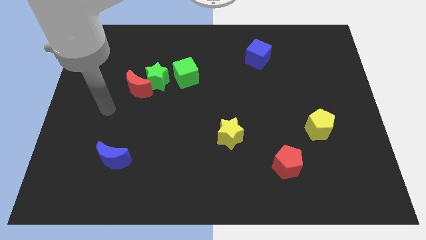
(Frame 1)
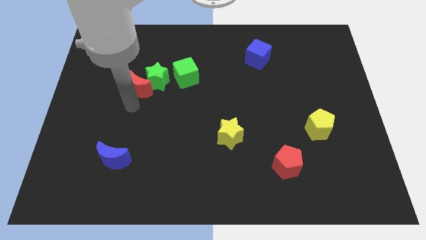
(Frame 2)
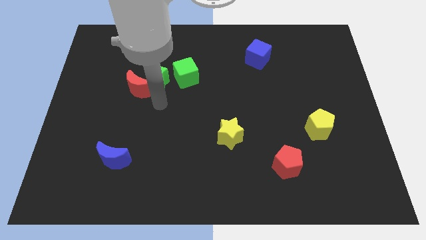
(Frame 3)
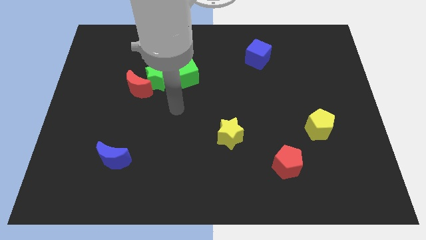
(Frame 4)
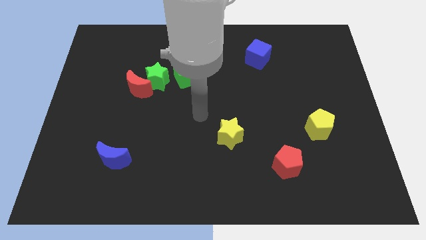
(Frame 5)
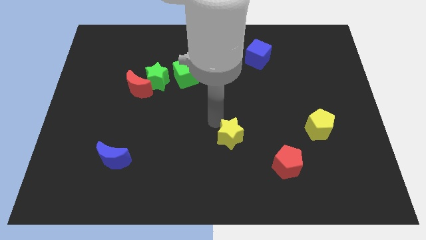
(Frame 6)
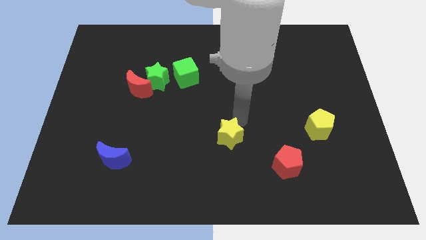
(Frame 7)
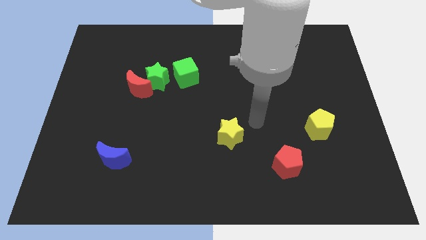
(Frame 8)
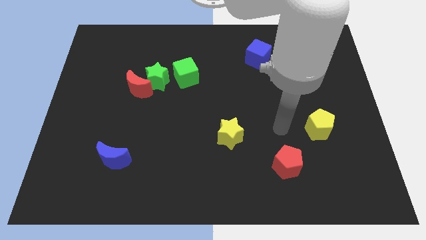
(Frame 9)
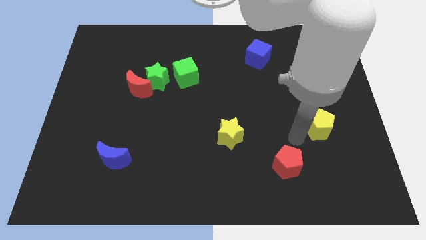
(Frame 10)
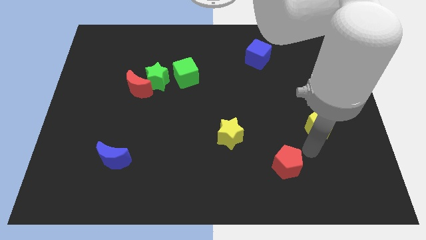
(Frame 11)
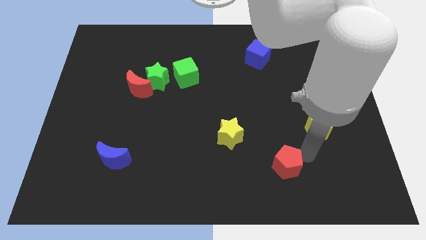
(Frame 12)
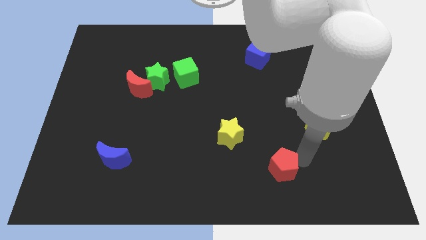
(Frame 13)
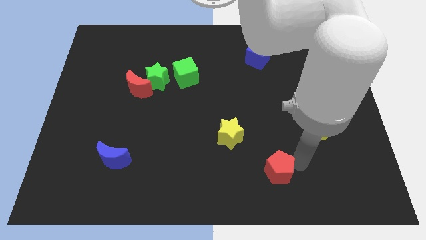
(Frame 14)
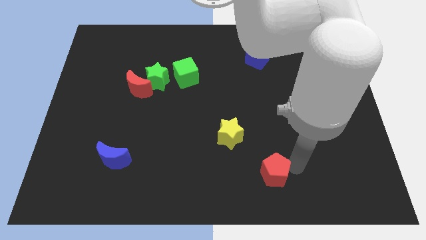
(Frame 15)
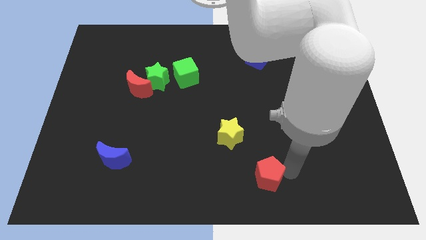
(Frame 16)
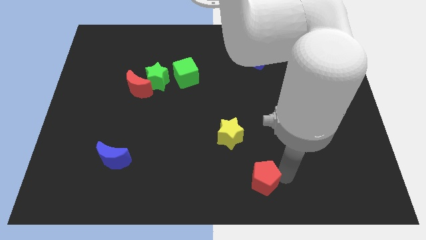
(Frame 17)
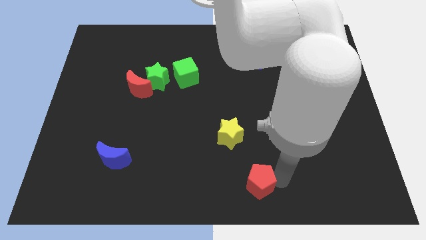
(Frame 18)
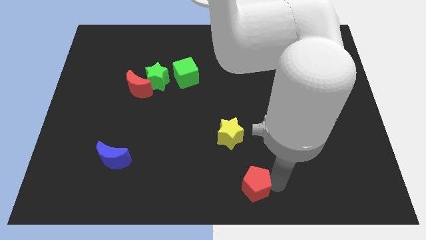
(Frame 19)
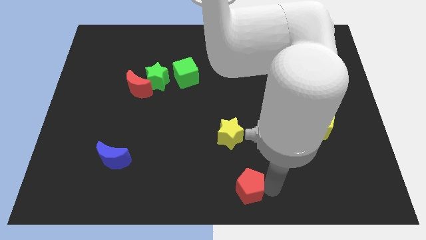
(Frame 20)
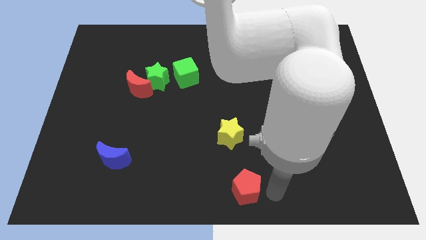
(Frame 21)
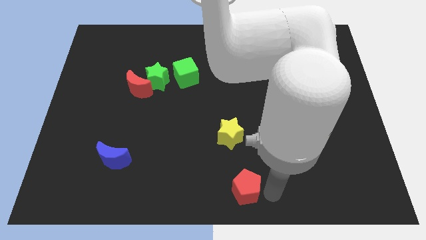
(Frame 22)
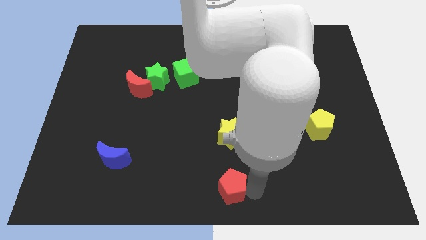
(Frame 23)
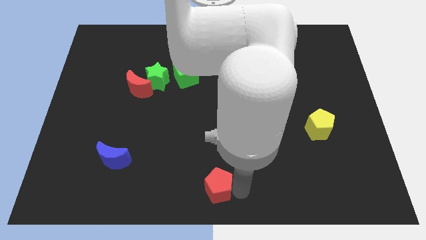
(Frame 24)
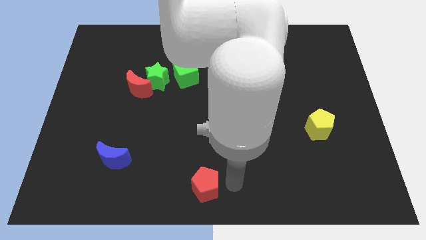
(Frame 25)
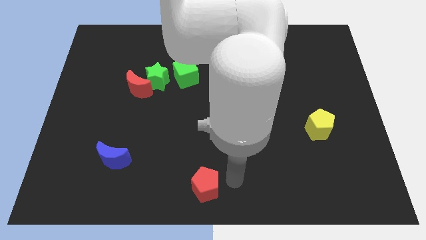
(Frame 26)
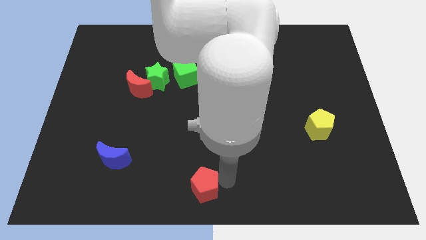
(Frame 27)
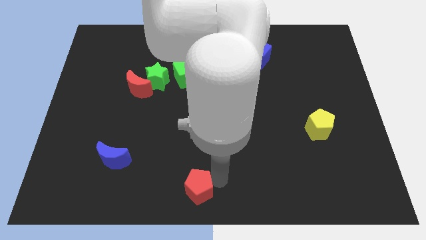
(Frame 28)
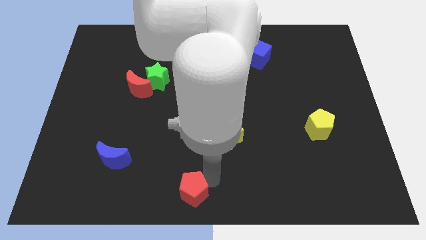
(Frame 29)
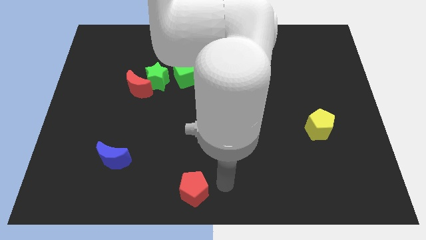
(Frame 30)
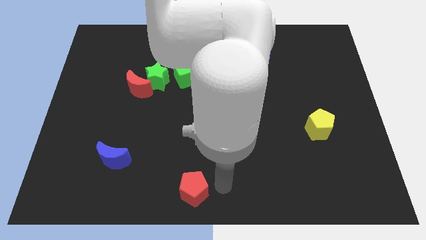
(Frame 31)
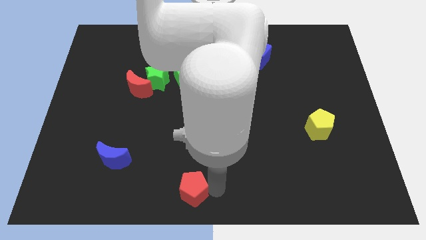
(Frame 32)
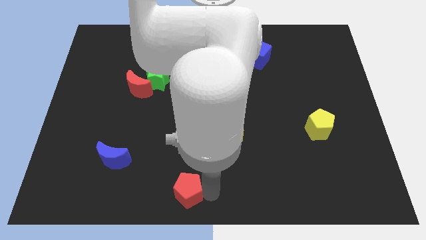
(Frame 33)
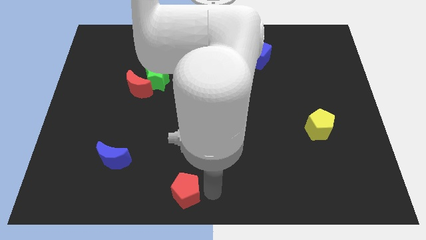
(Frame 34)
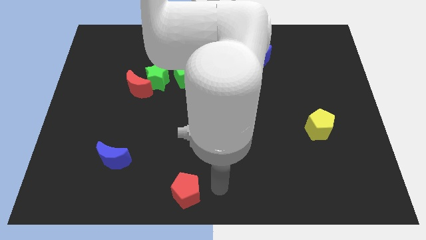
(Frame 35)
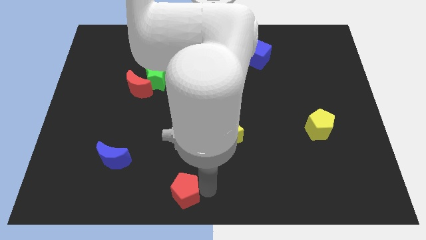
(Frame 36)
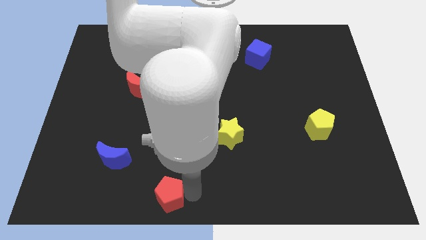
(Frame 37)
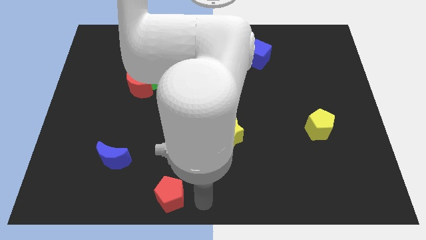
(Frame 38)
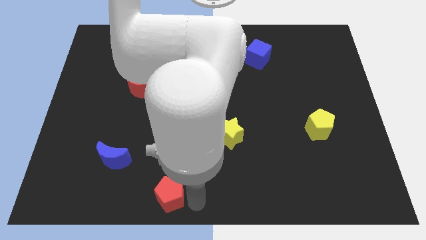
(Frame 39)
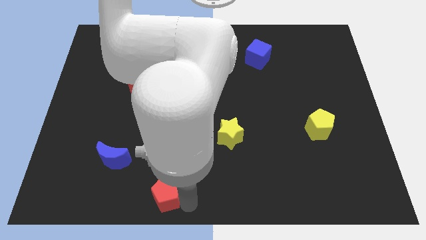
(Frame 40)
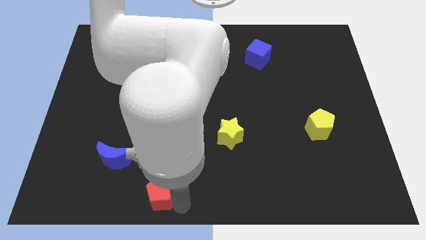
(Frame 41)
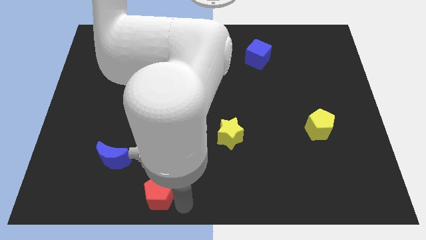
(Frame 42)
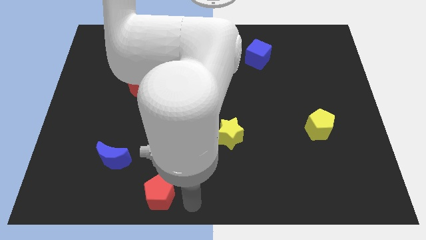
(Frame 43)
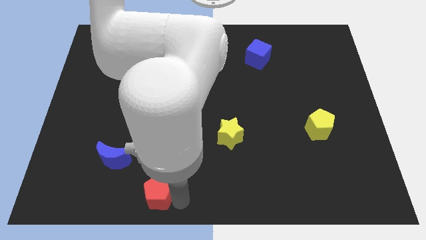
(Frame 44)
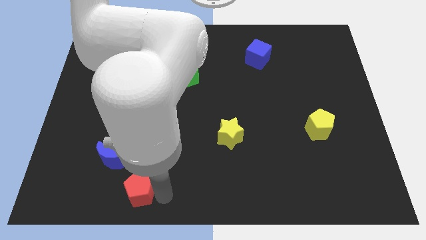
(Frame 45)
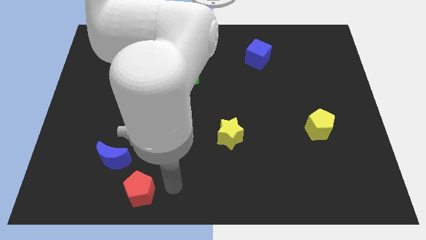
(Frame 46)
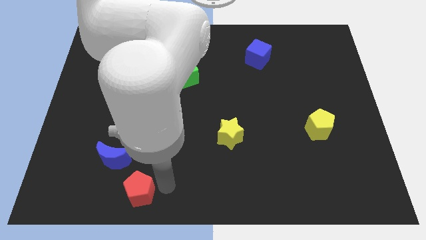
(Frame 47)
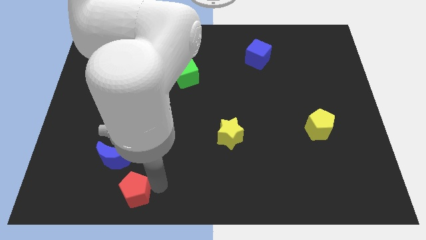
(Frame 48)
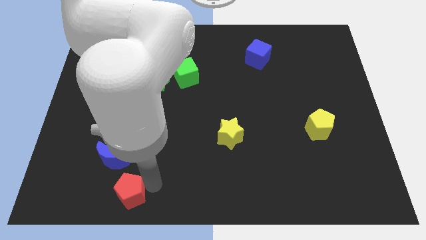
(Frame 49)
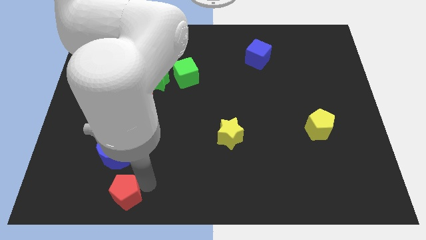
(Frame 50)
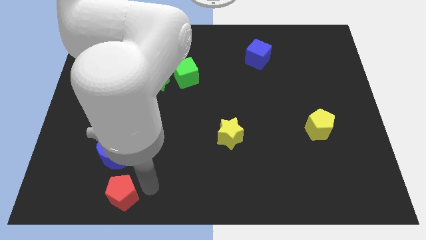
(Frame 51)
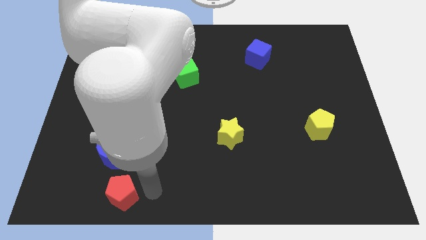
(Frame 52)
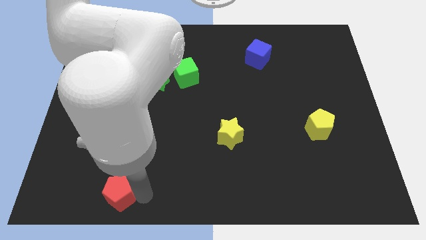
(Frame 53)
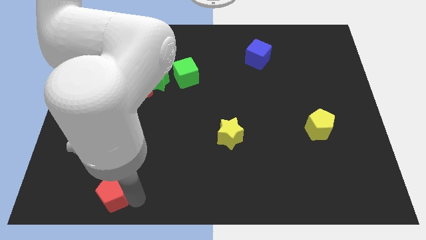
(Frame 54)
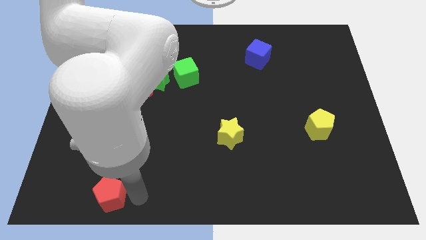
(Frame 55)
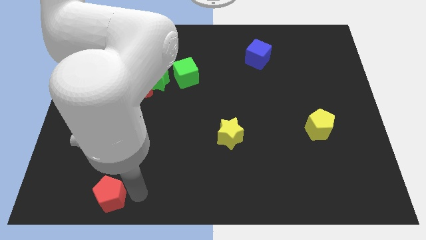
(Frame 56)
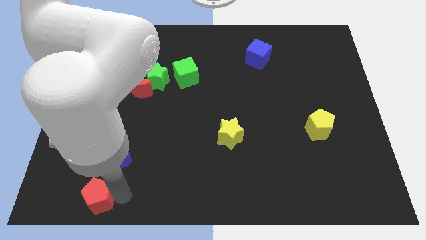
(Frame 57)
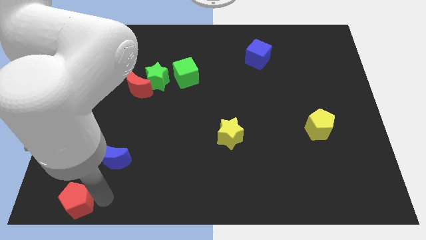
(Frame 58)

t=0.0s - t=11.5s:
slide the red pentagon to the bottom left corner

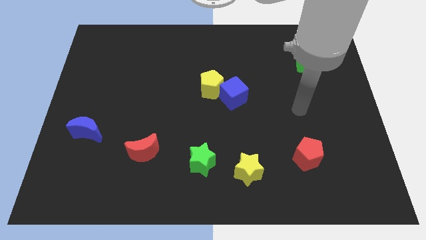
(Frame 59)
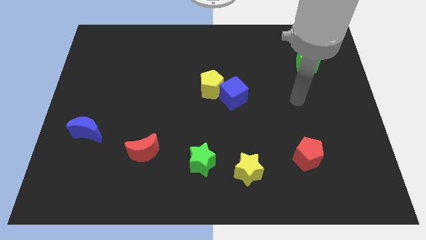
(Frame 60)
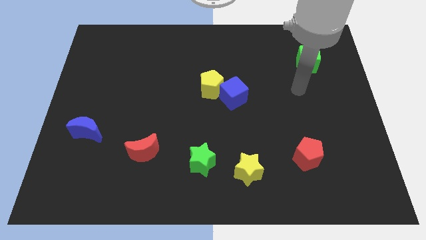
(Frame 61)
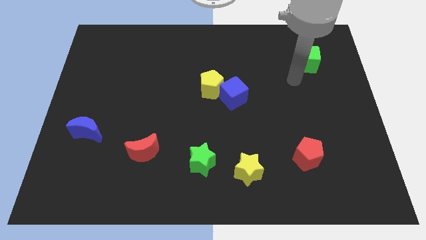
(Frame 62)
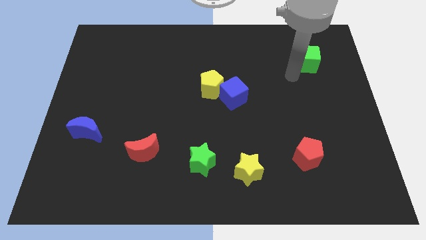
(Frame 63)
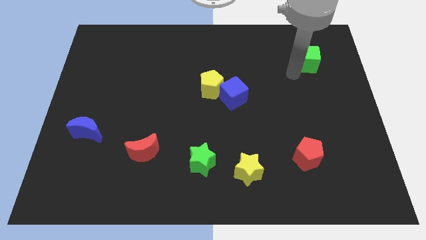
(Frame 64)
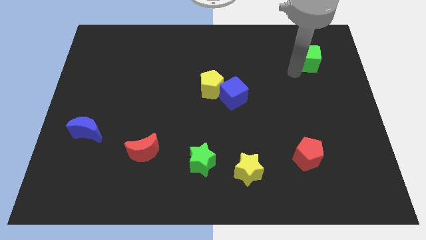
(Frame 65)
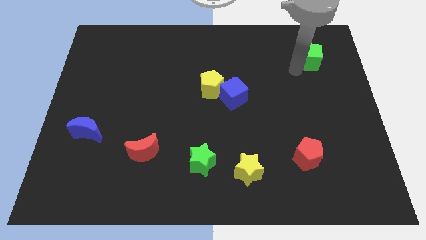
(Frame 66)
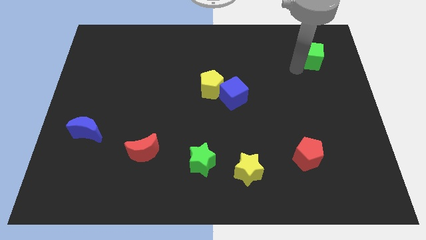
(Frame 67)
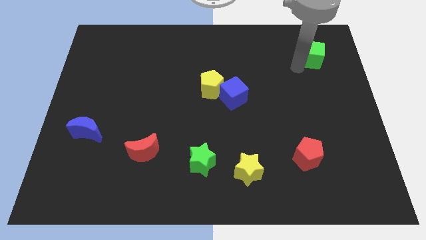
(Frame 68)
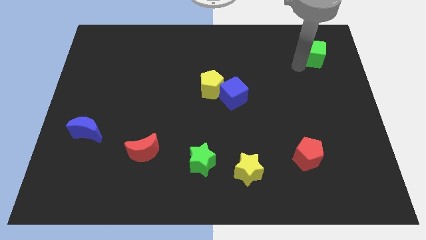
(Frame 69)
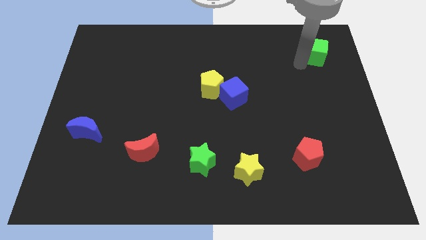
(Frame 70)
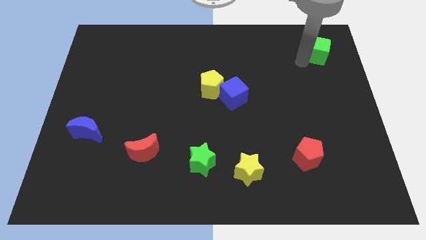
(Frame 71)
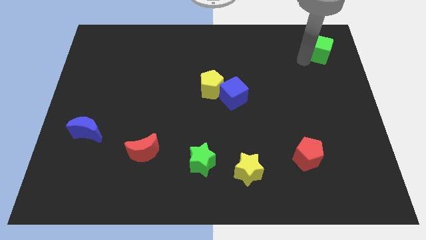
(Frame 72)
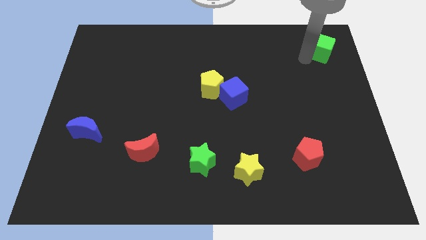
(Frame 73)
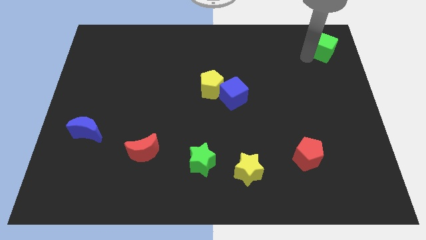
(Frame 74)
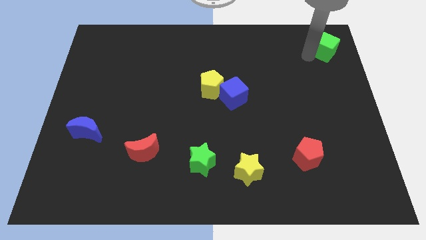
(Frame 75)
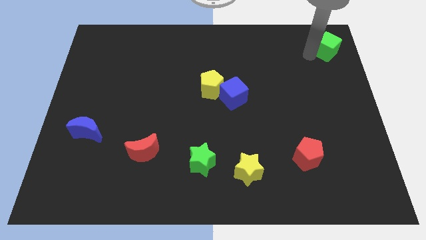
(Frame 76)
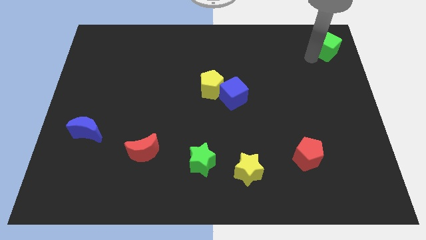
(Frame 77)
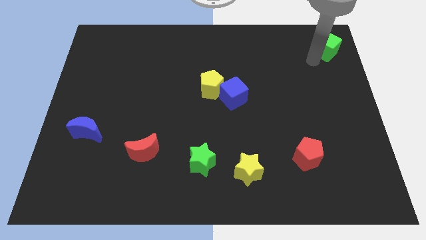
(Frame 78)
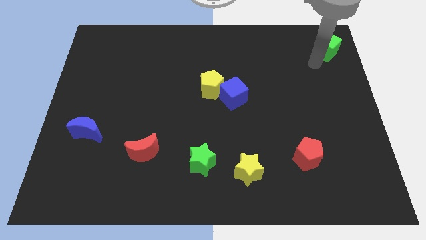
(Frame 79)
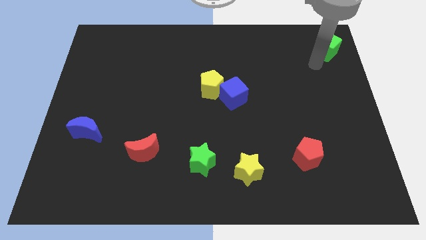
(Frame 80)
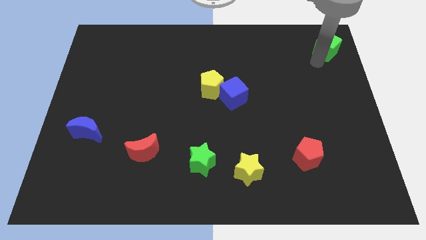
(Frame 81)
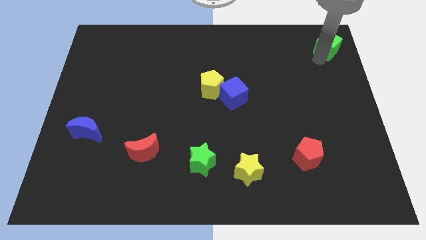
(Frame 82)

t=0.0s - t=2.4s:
push the green cube to the upper right corner
